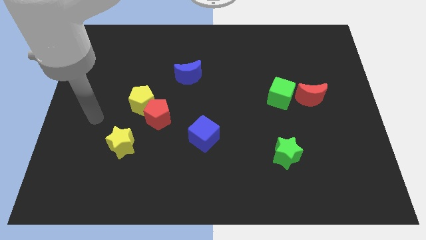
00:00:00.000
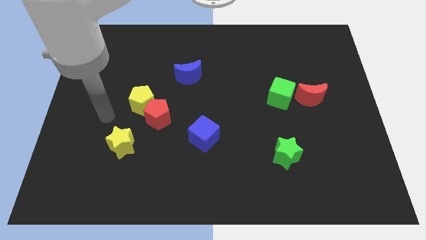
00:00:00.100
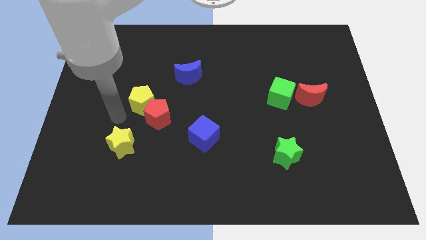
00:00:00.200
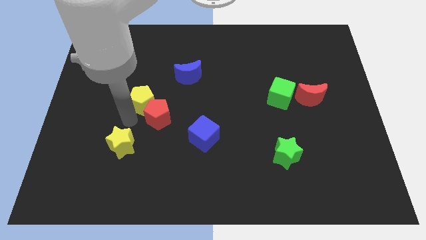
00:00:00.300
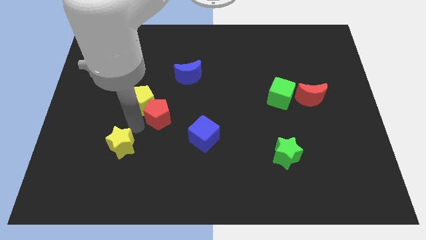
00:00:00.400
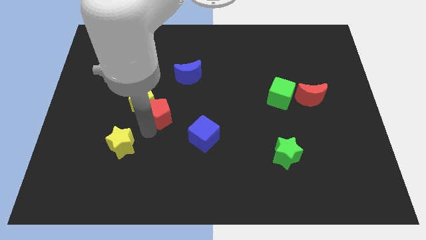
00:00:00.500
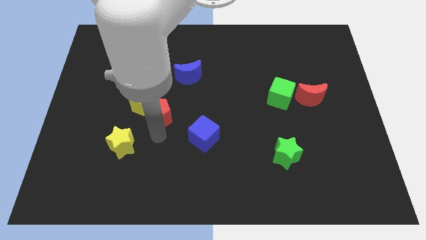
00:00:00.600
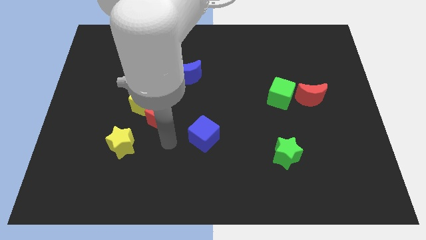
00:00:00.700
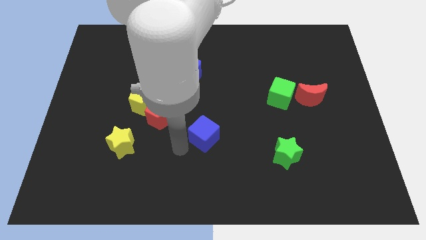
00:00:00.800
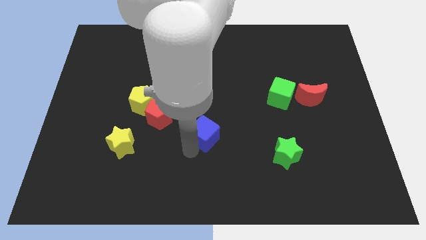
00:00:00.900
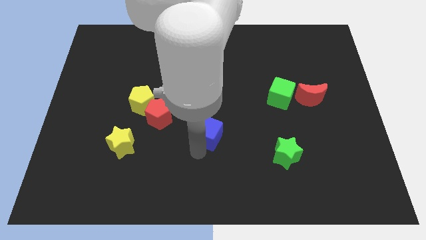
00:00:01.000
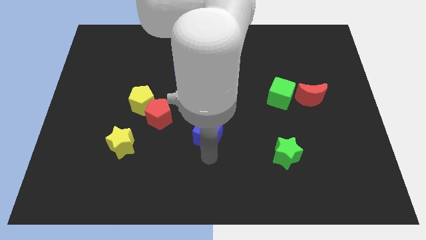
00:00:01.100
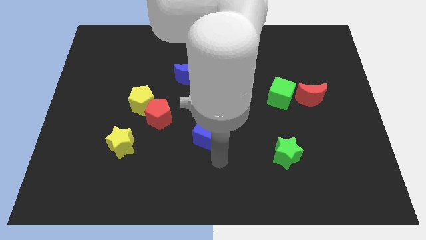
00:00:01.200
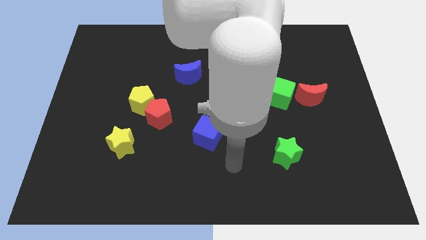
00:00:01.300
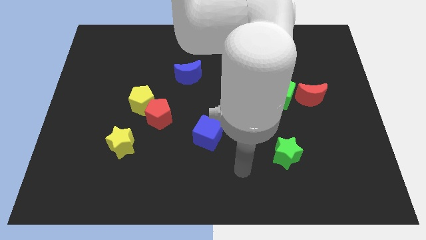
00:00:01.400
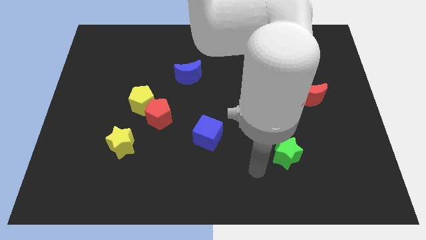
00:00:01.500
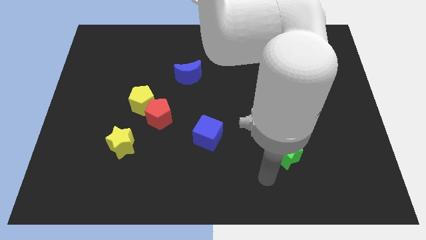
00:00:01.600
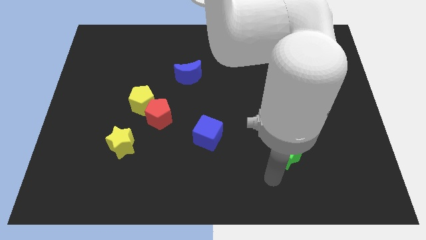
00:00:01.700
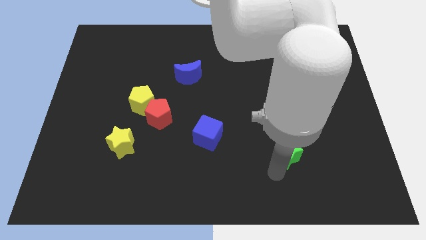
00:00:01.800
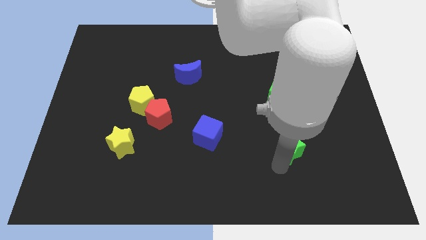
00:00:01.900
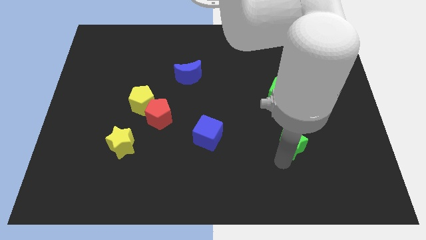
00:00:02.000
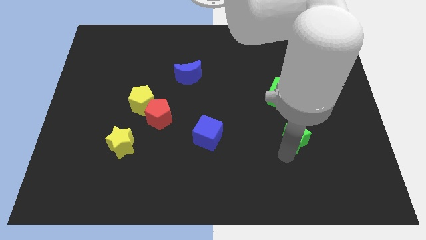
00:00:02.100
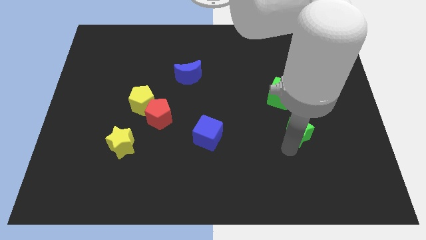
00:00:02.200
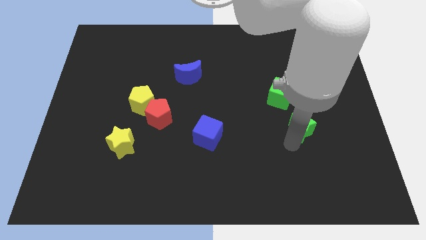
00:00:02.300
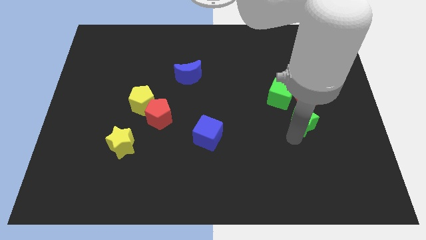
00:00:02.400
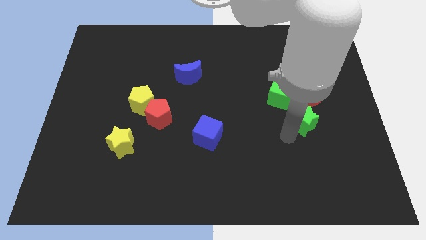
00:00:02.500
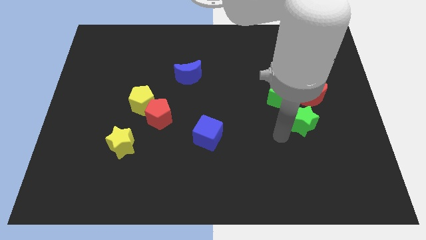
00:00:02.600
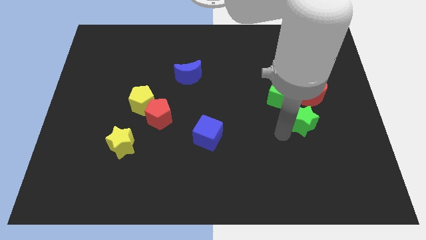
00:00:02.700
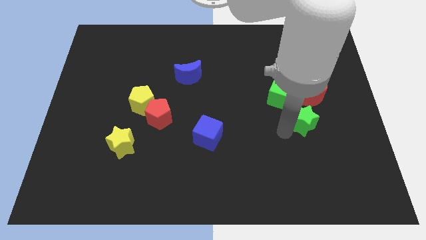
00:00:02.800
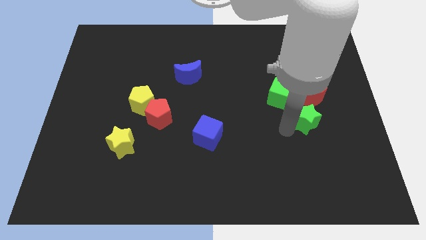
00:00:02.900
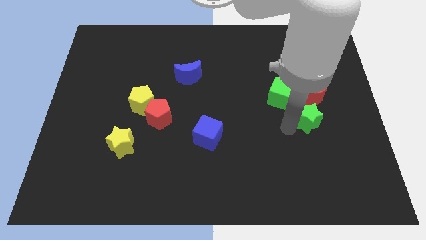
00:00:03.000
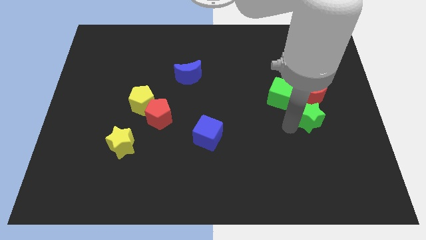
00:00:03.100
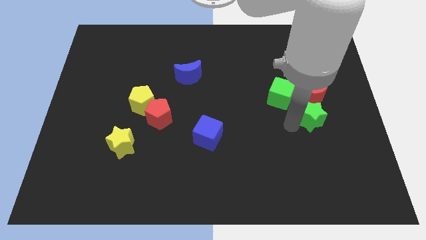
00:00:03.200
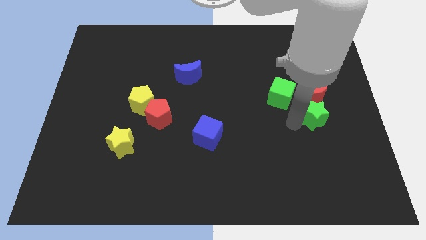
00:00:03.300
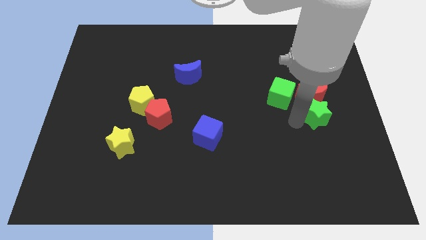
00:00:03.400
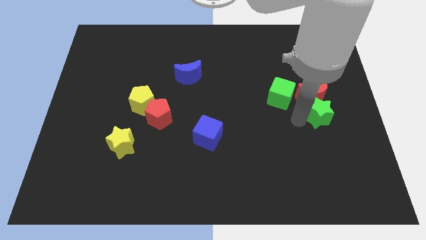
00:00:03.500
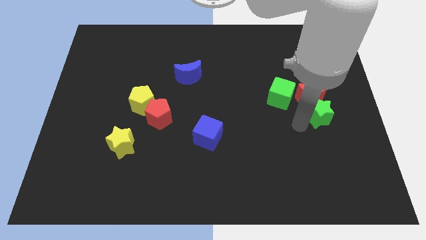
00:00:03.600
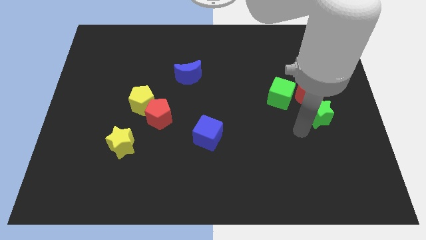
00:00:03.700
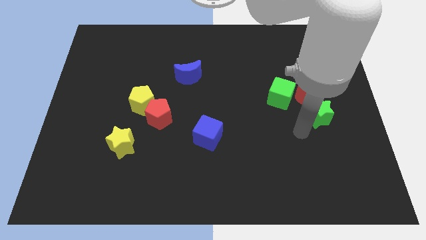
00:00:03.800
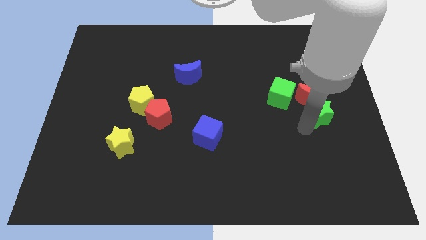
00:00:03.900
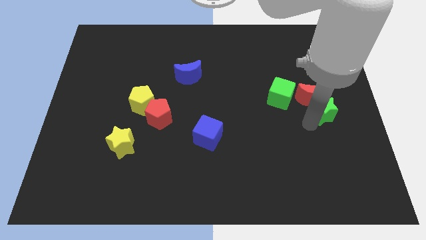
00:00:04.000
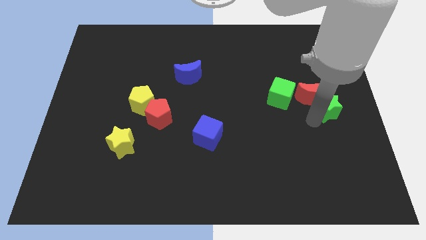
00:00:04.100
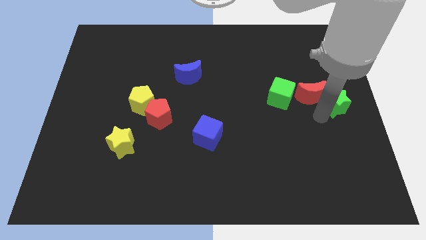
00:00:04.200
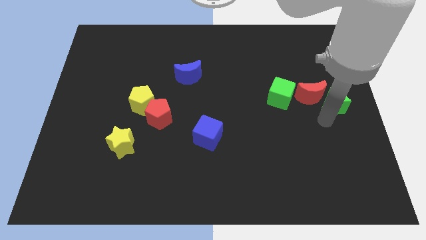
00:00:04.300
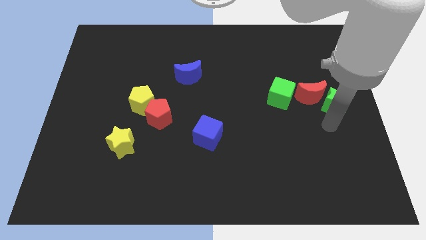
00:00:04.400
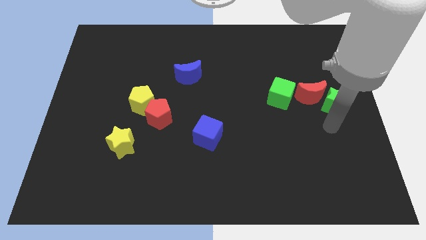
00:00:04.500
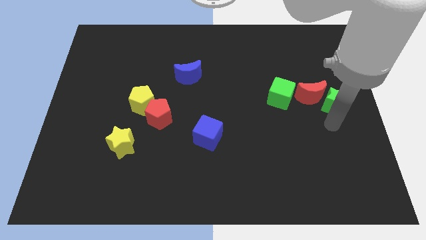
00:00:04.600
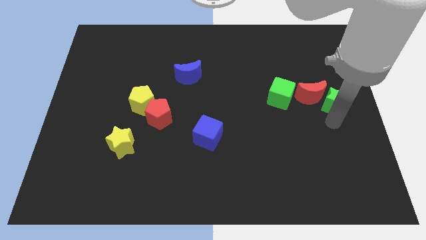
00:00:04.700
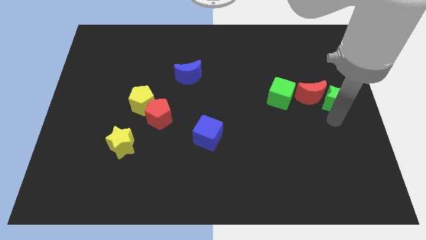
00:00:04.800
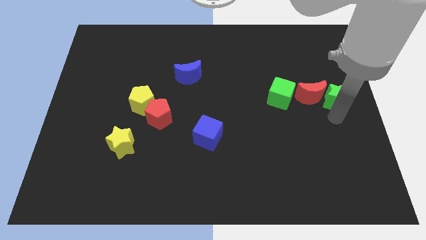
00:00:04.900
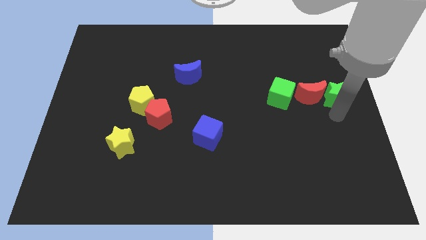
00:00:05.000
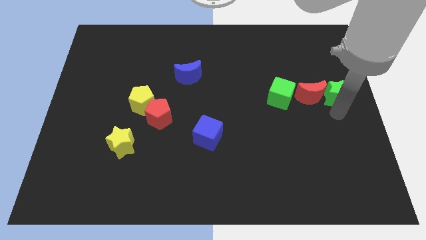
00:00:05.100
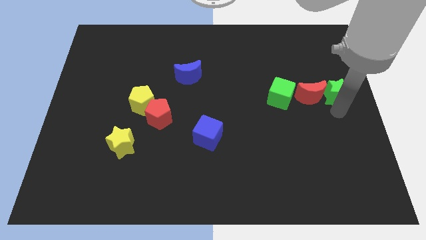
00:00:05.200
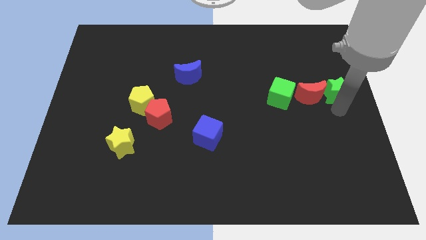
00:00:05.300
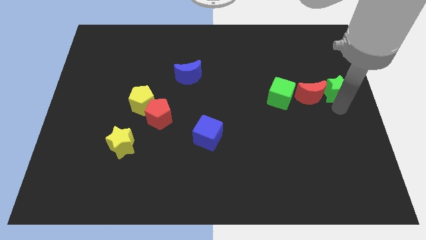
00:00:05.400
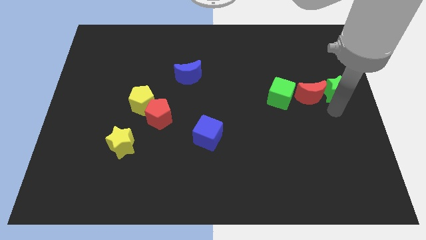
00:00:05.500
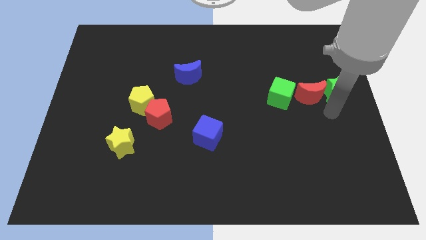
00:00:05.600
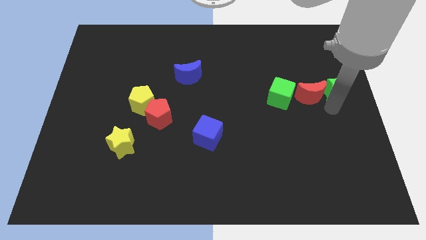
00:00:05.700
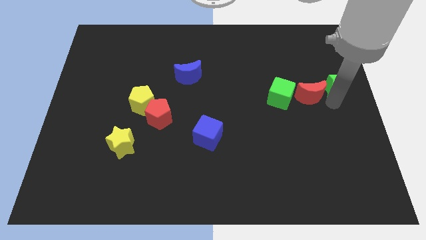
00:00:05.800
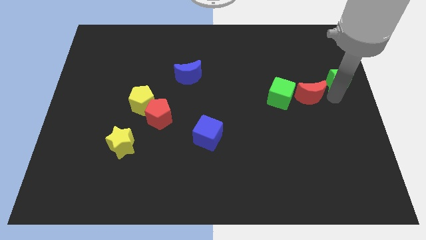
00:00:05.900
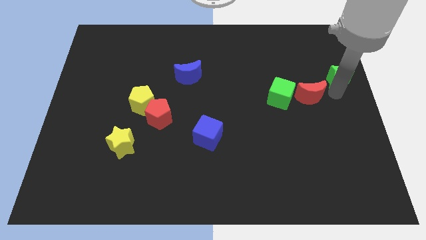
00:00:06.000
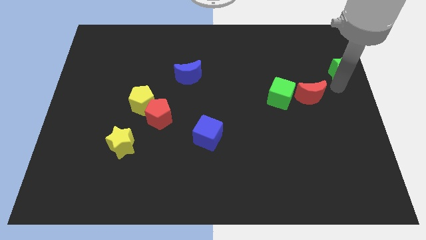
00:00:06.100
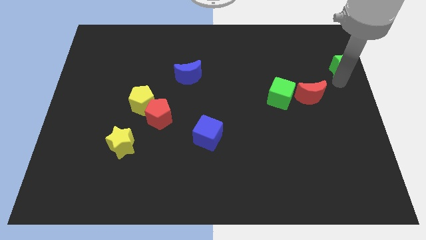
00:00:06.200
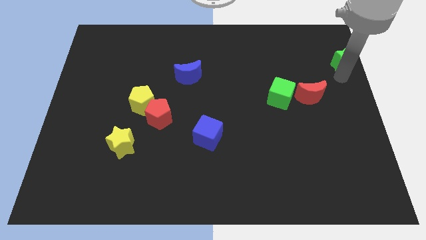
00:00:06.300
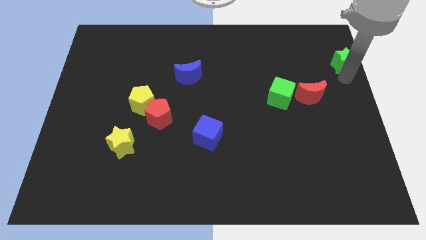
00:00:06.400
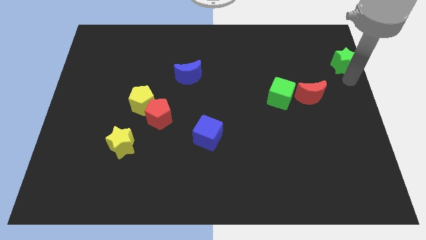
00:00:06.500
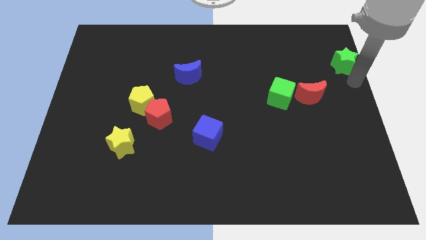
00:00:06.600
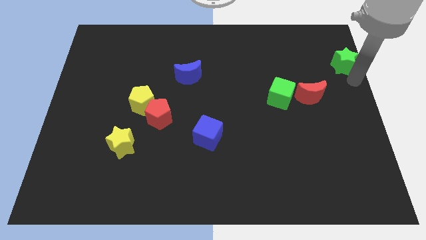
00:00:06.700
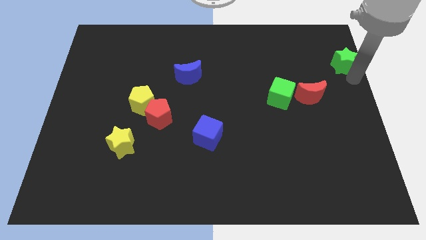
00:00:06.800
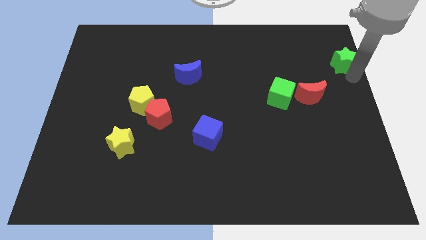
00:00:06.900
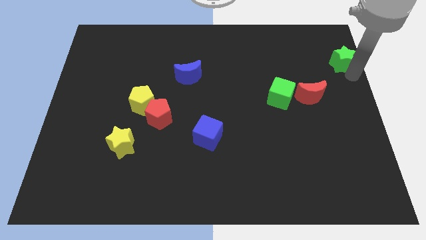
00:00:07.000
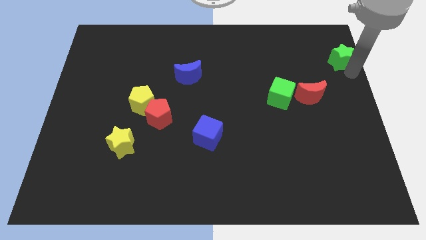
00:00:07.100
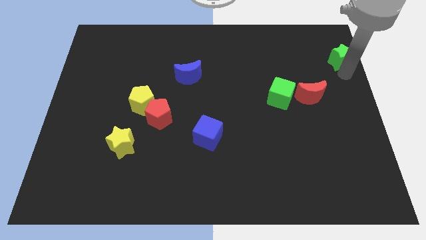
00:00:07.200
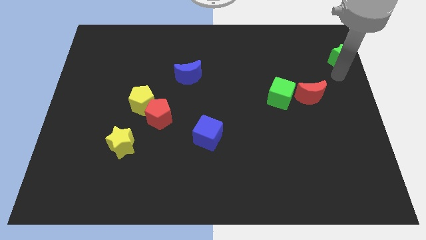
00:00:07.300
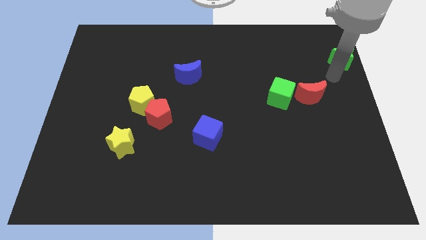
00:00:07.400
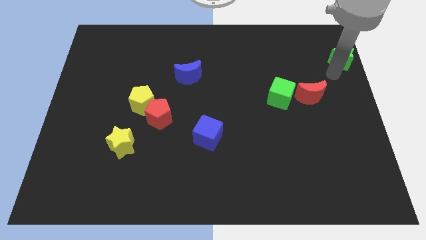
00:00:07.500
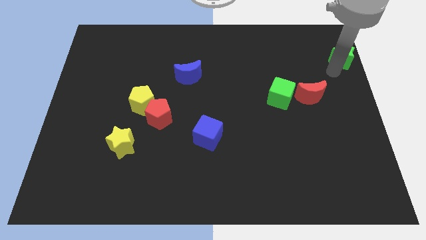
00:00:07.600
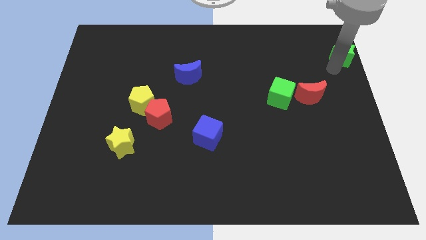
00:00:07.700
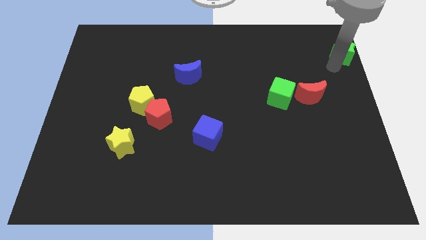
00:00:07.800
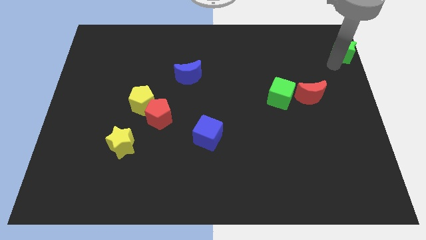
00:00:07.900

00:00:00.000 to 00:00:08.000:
move the green star to the upper right corner
